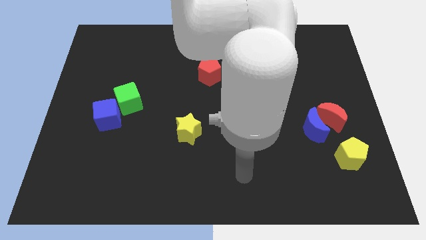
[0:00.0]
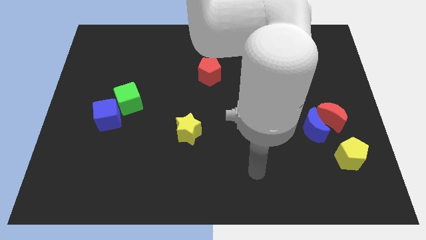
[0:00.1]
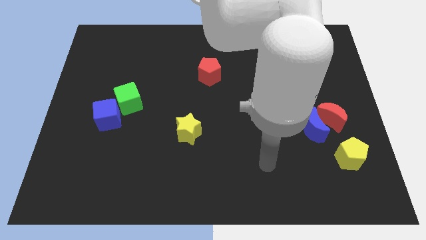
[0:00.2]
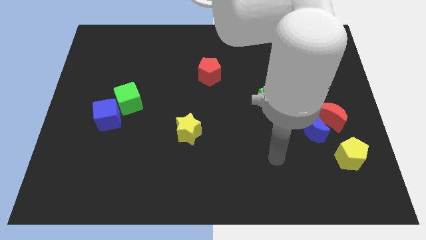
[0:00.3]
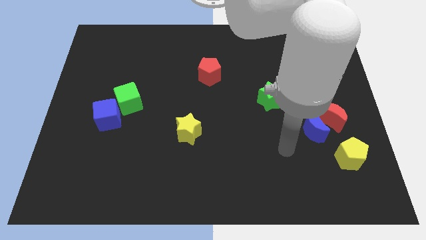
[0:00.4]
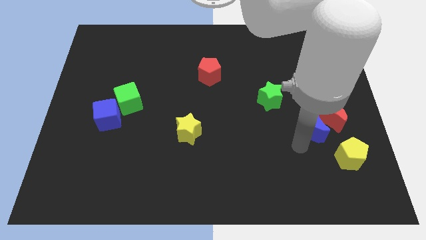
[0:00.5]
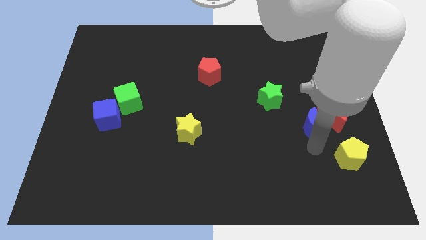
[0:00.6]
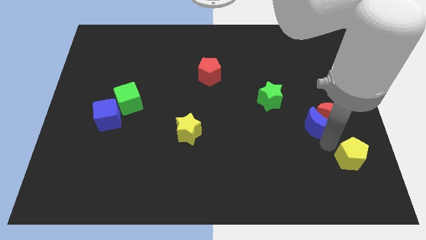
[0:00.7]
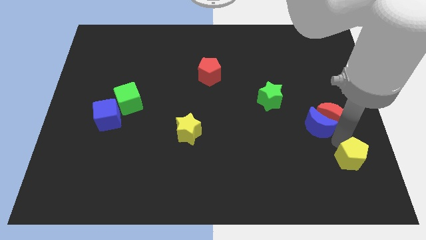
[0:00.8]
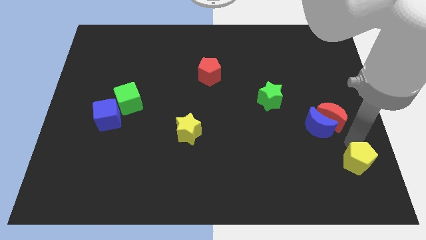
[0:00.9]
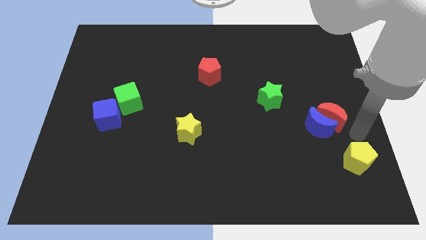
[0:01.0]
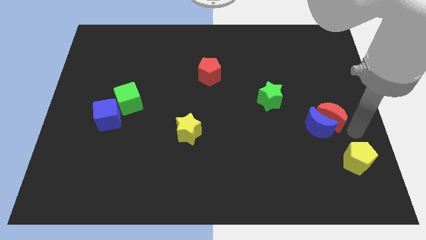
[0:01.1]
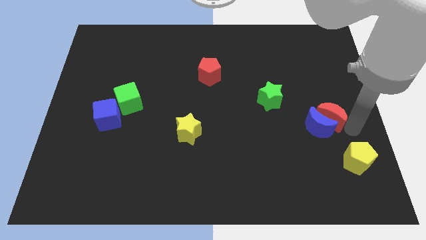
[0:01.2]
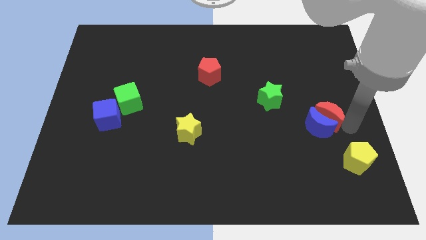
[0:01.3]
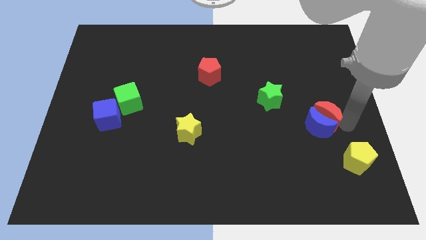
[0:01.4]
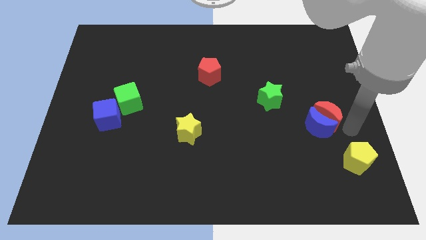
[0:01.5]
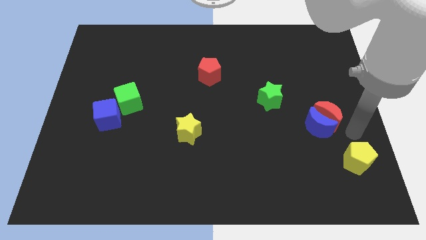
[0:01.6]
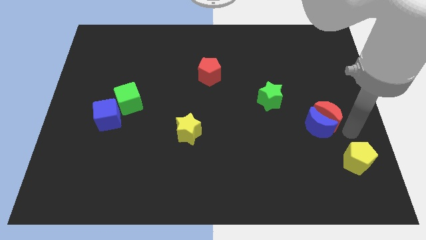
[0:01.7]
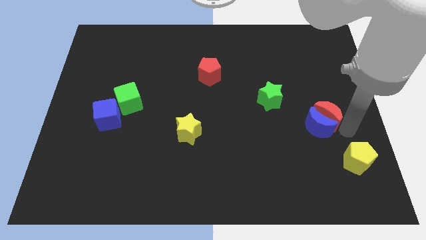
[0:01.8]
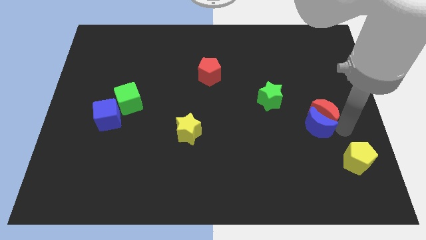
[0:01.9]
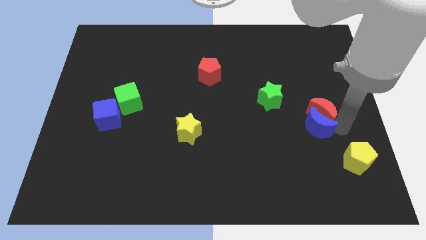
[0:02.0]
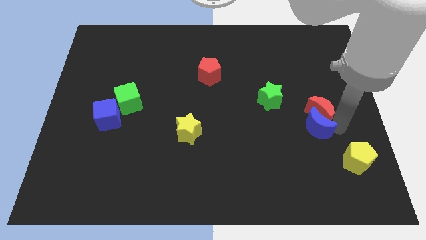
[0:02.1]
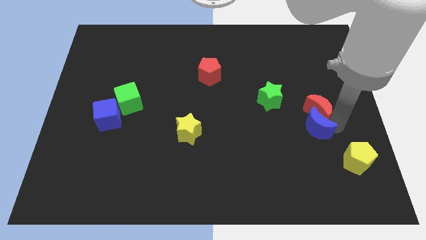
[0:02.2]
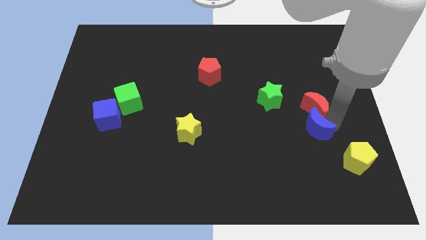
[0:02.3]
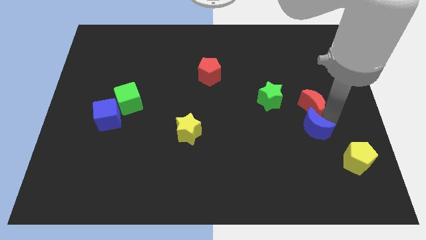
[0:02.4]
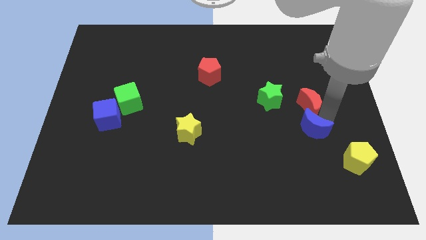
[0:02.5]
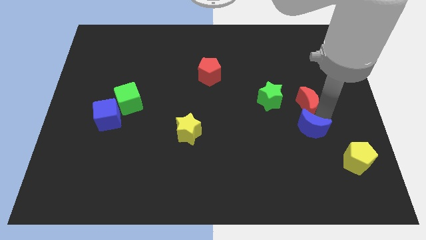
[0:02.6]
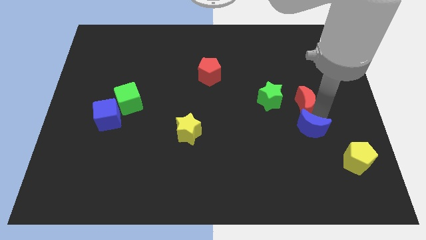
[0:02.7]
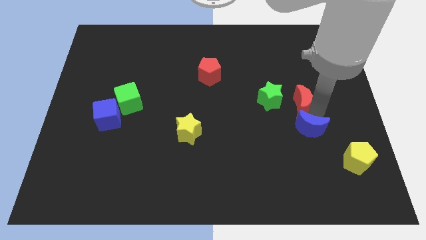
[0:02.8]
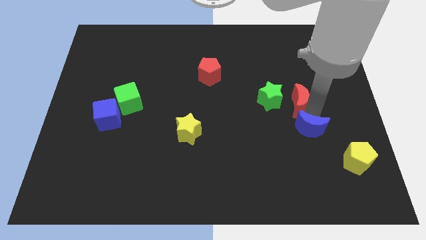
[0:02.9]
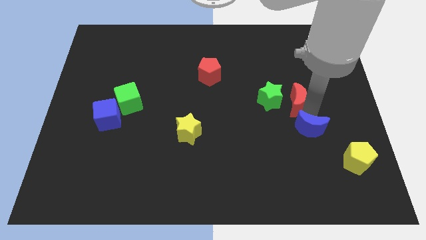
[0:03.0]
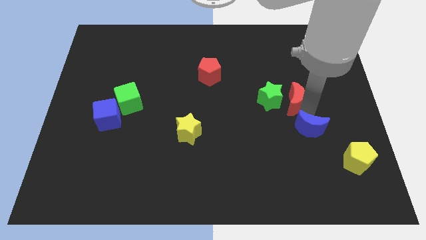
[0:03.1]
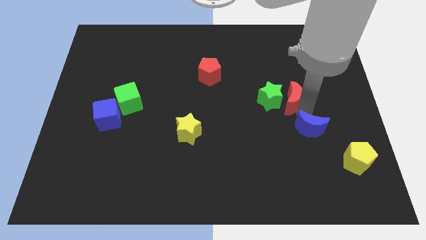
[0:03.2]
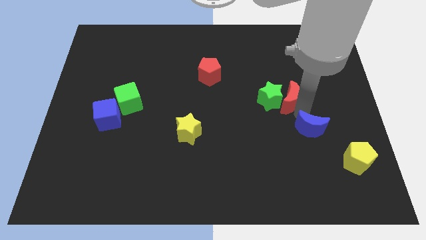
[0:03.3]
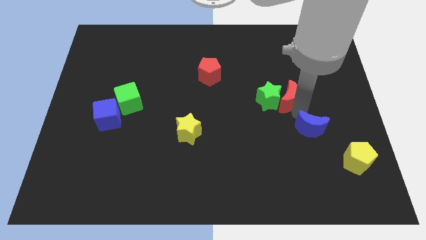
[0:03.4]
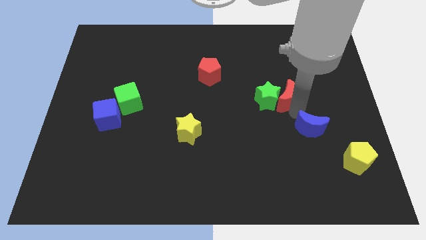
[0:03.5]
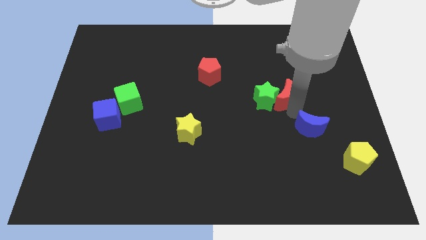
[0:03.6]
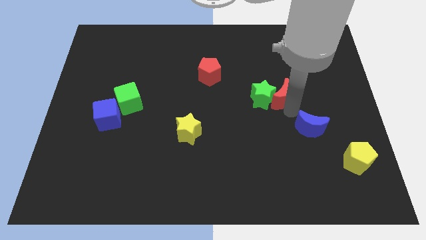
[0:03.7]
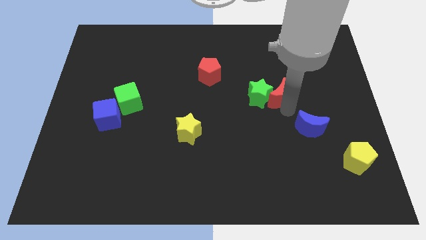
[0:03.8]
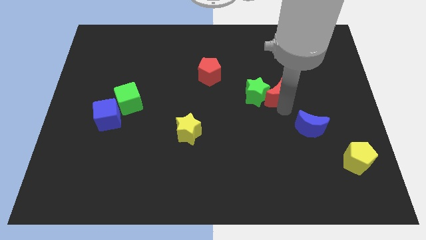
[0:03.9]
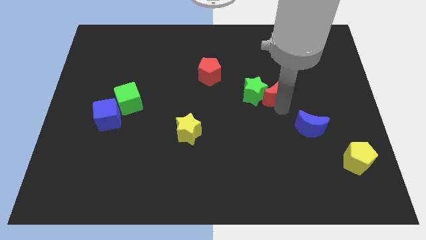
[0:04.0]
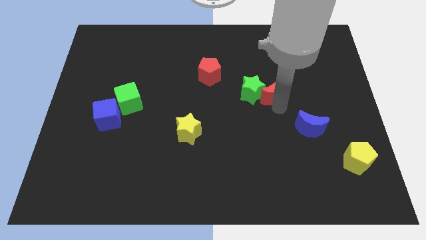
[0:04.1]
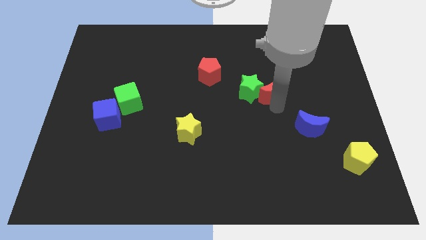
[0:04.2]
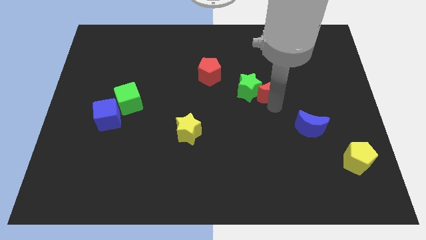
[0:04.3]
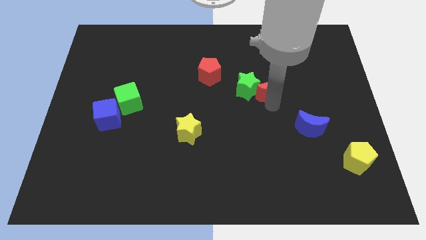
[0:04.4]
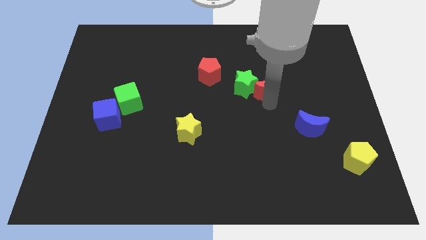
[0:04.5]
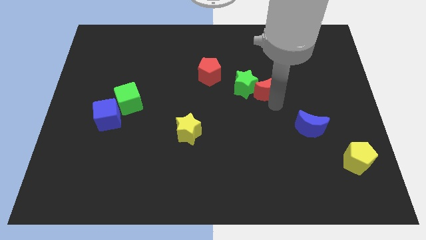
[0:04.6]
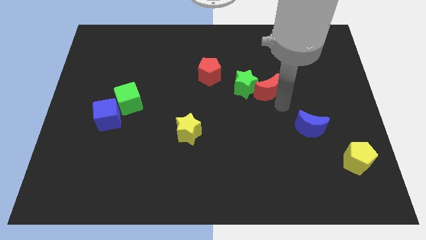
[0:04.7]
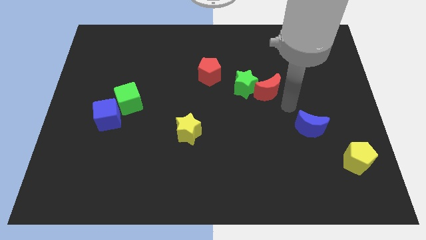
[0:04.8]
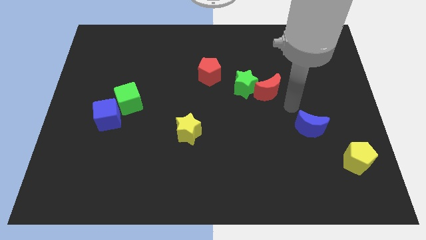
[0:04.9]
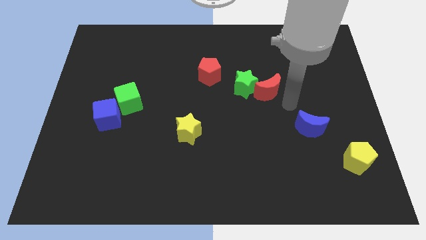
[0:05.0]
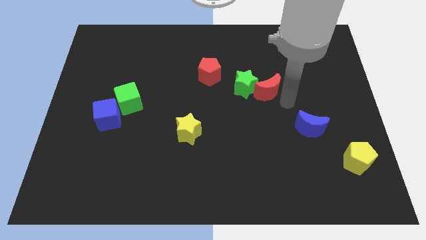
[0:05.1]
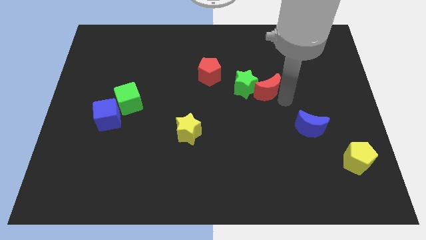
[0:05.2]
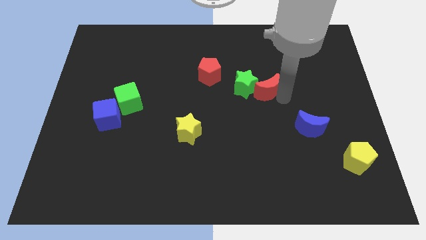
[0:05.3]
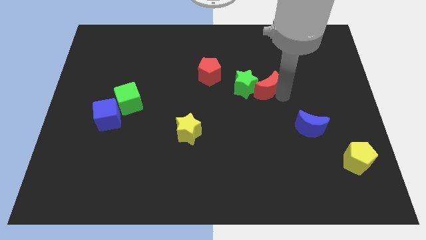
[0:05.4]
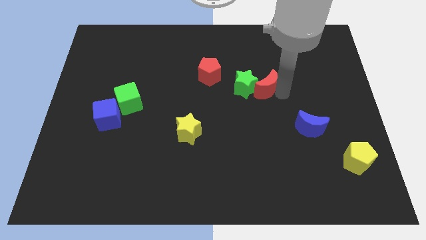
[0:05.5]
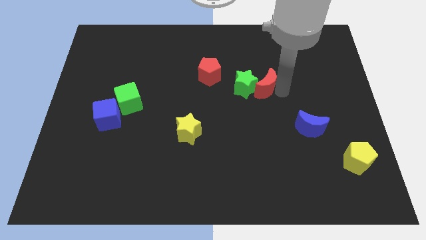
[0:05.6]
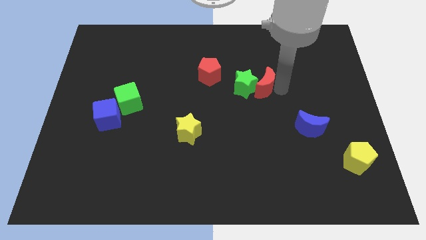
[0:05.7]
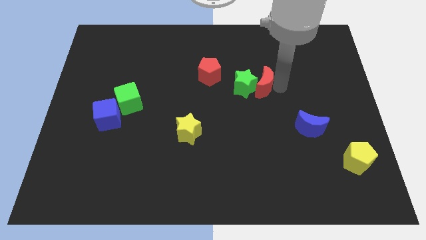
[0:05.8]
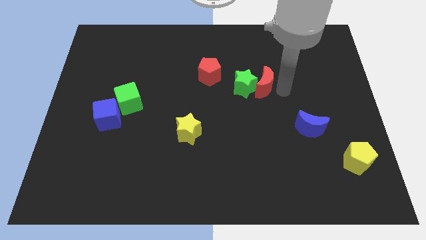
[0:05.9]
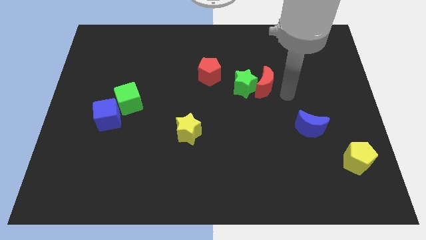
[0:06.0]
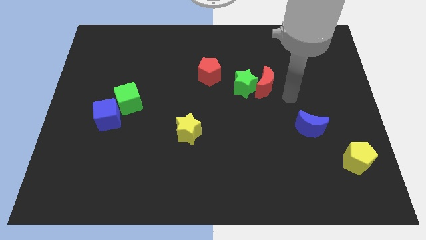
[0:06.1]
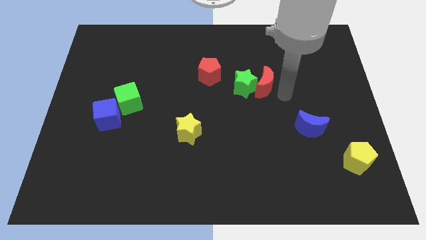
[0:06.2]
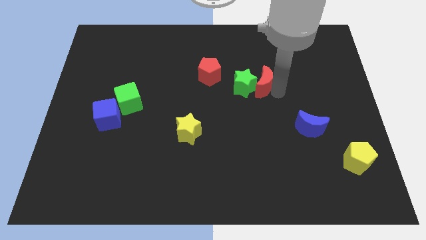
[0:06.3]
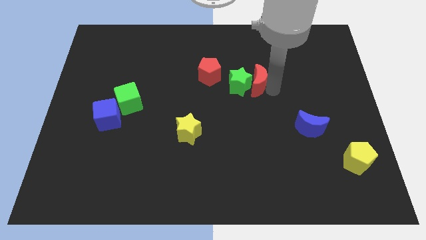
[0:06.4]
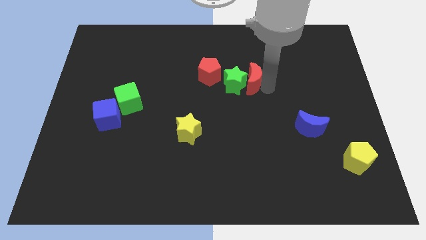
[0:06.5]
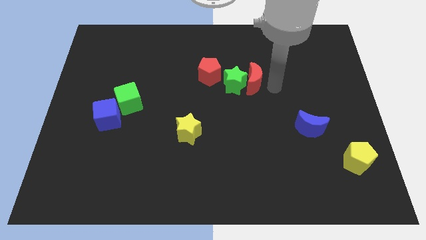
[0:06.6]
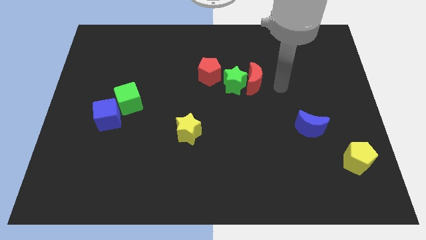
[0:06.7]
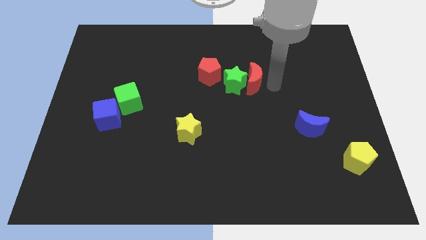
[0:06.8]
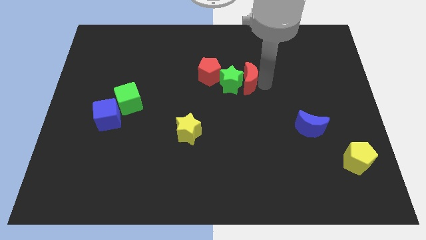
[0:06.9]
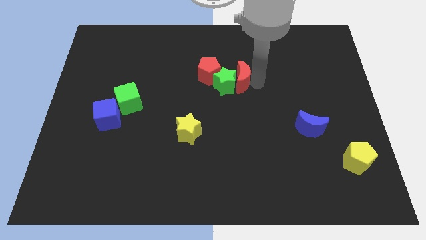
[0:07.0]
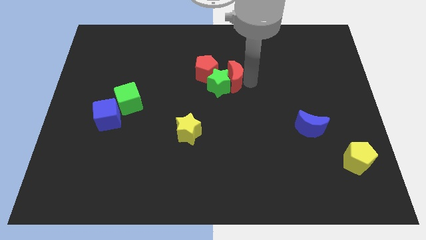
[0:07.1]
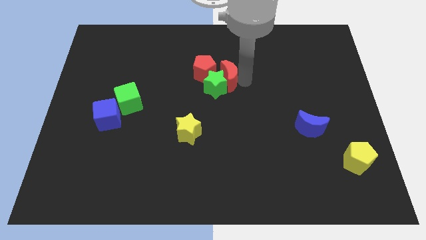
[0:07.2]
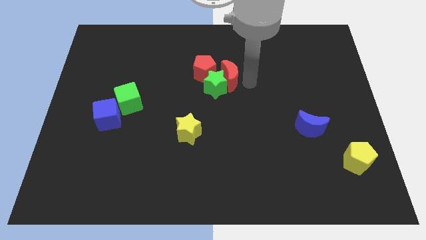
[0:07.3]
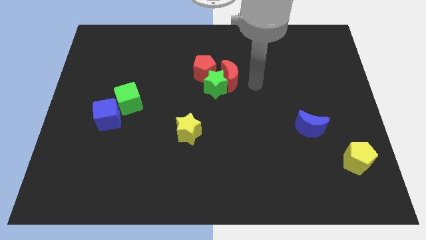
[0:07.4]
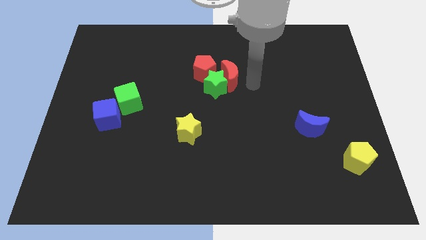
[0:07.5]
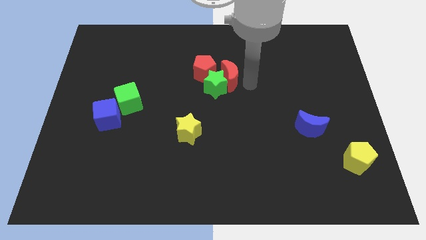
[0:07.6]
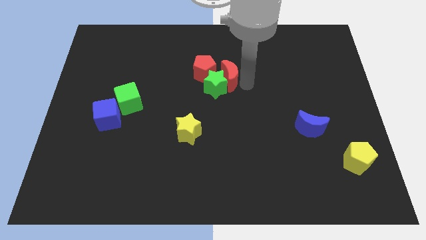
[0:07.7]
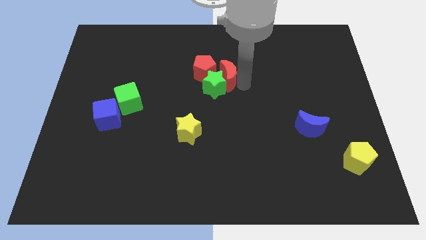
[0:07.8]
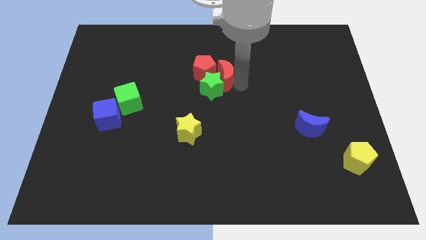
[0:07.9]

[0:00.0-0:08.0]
push the red moon next to the red pentagon
